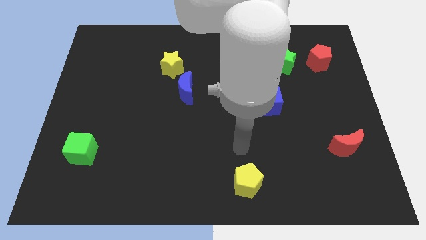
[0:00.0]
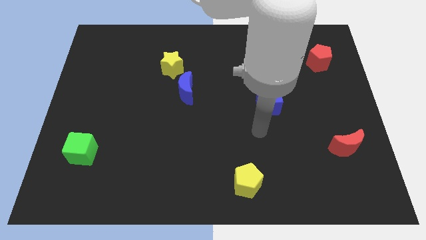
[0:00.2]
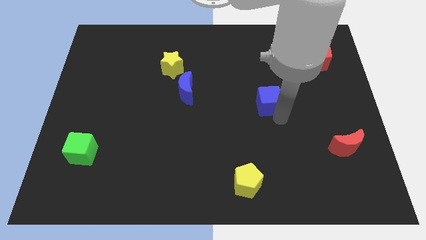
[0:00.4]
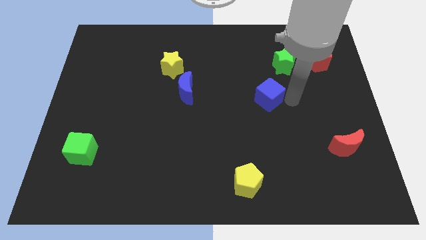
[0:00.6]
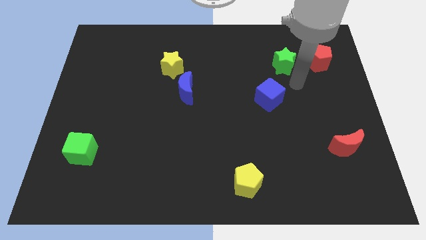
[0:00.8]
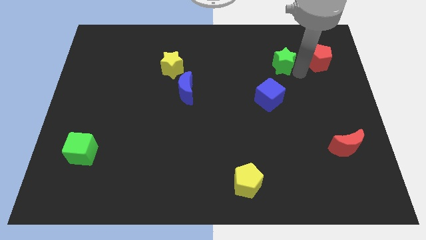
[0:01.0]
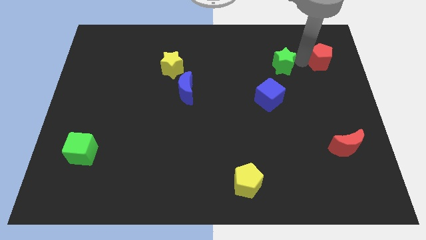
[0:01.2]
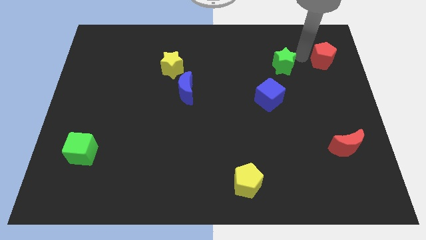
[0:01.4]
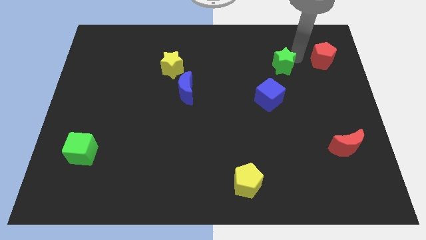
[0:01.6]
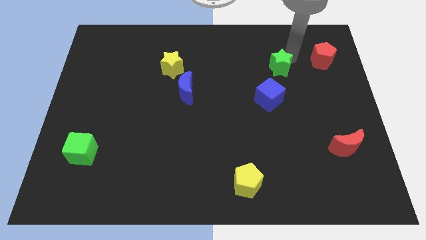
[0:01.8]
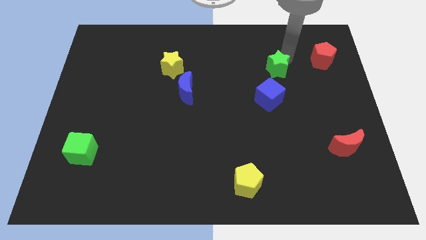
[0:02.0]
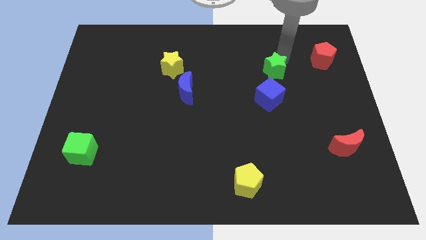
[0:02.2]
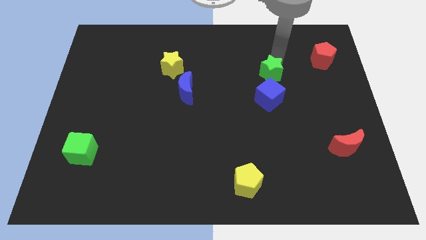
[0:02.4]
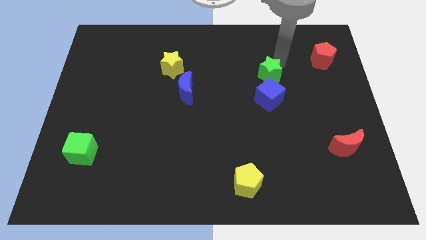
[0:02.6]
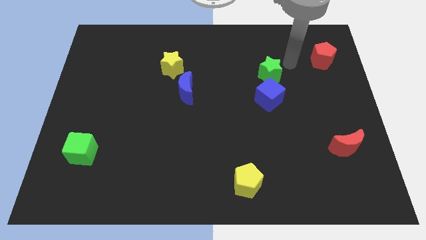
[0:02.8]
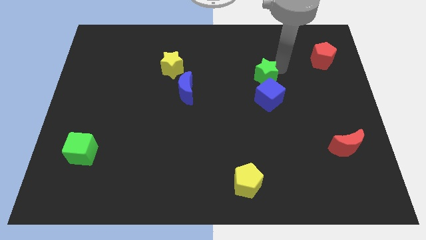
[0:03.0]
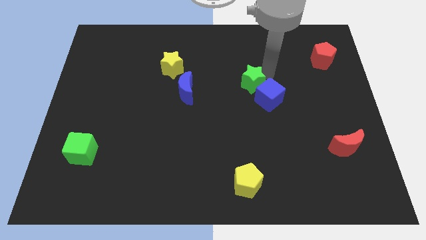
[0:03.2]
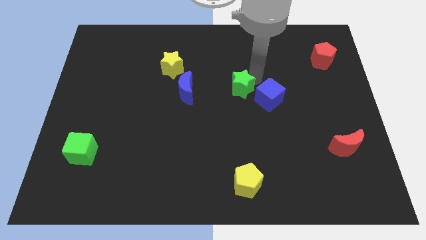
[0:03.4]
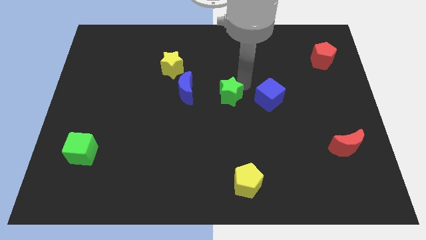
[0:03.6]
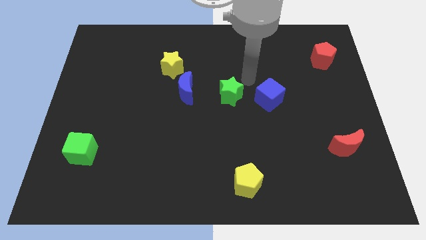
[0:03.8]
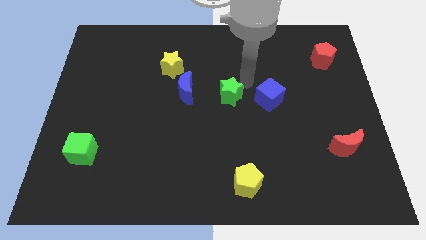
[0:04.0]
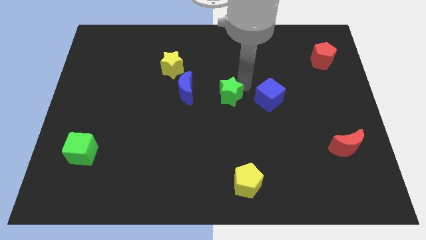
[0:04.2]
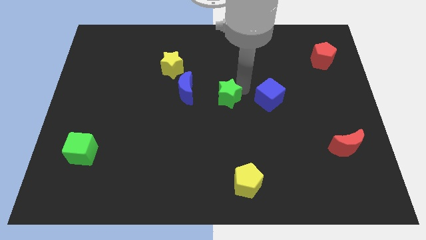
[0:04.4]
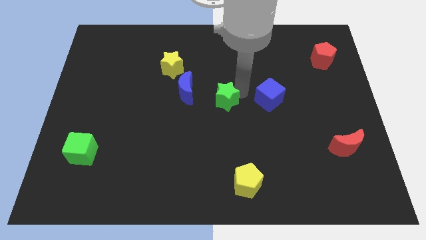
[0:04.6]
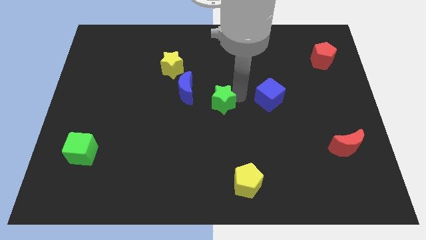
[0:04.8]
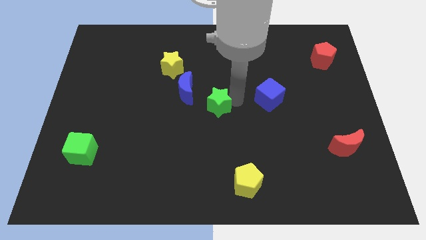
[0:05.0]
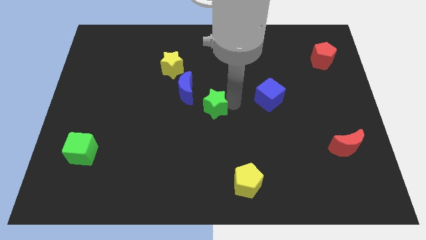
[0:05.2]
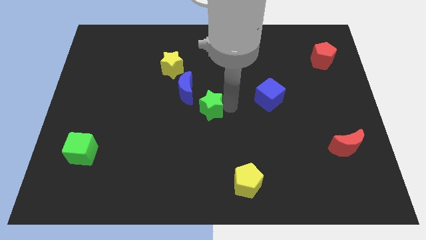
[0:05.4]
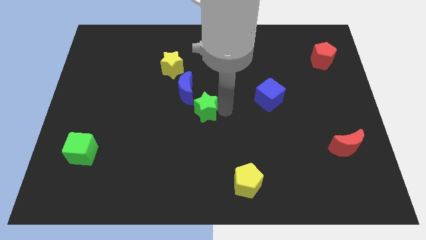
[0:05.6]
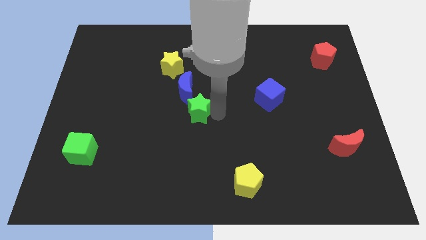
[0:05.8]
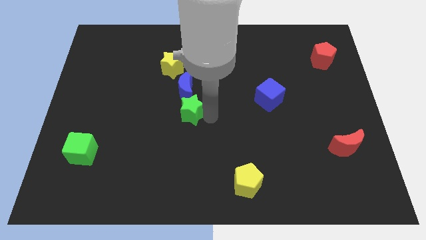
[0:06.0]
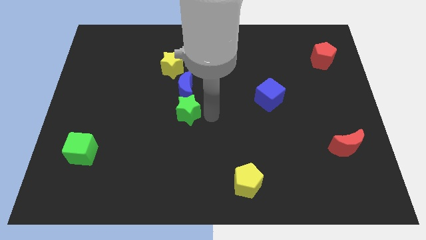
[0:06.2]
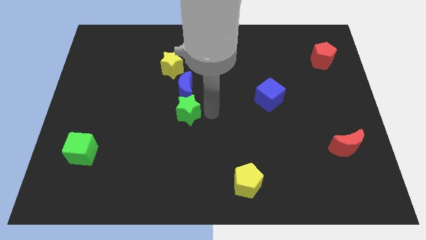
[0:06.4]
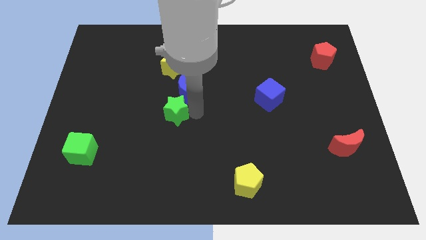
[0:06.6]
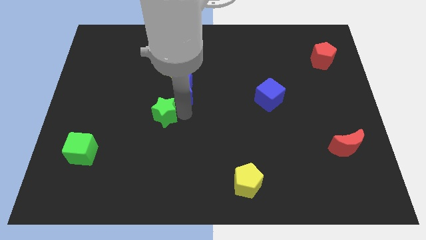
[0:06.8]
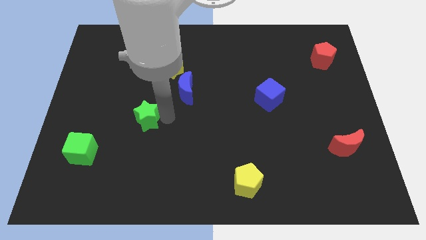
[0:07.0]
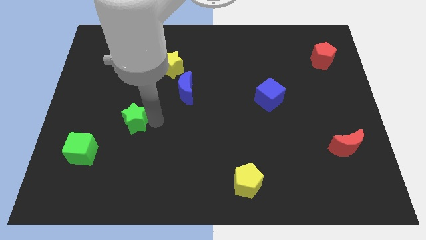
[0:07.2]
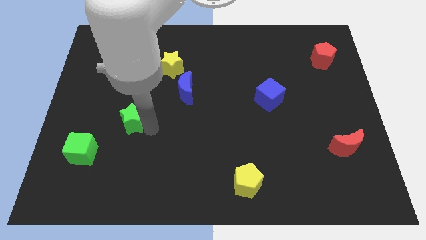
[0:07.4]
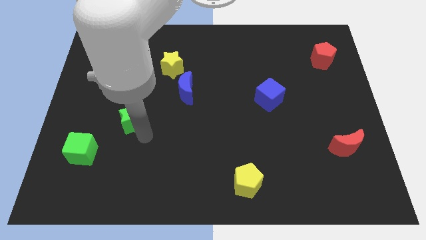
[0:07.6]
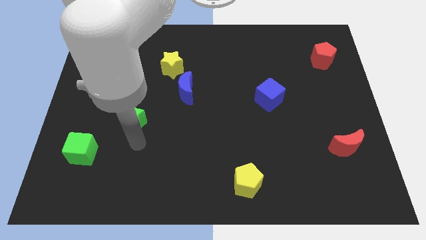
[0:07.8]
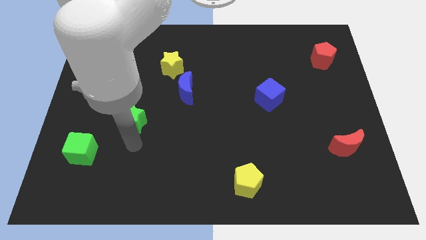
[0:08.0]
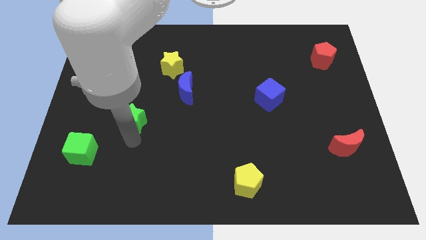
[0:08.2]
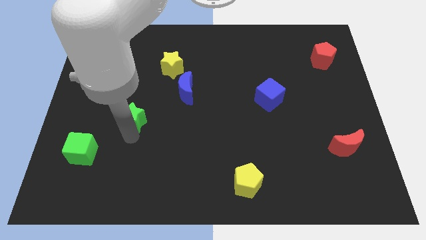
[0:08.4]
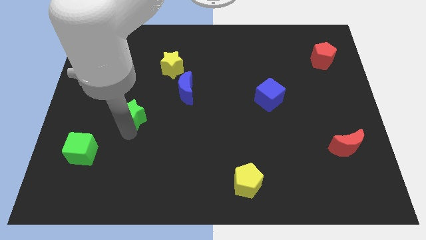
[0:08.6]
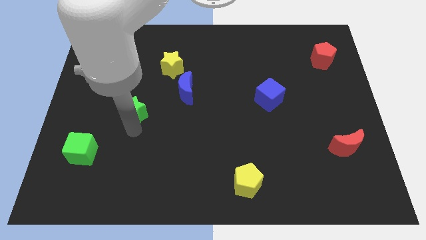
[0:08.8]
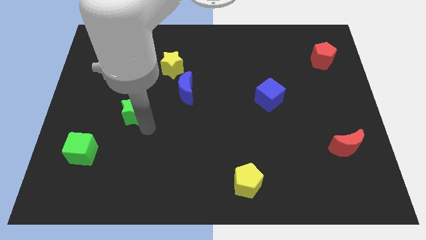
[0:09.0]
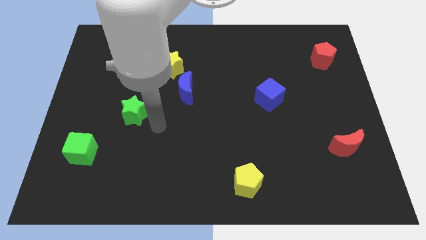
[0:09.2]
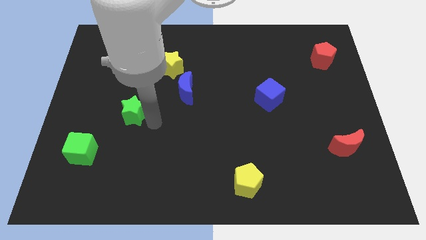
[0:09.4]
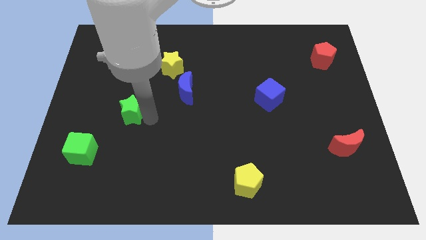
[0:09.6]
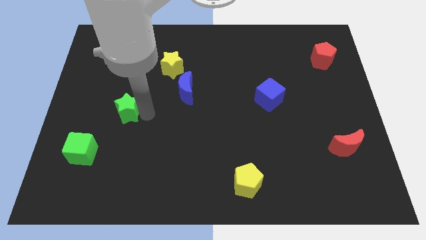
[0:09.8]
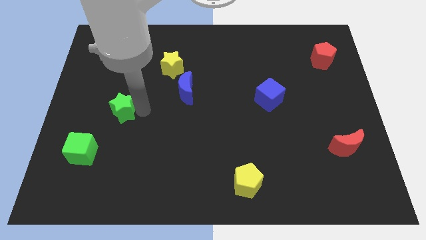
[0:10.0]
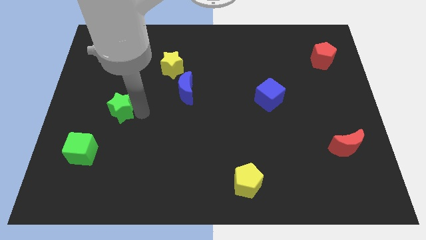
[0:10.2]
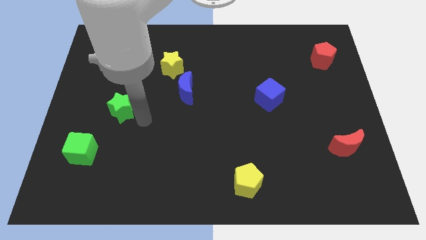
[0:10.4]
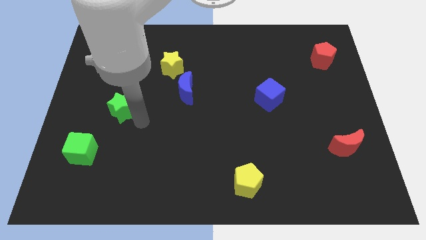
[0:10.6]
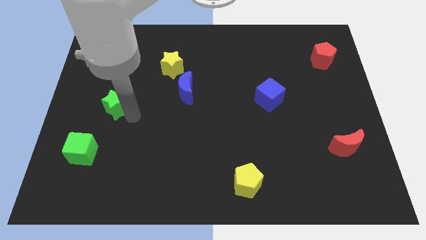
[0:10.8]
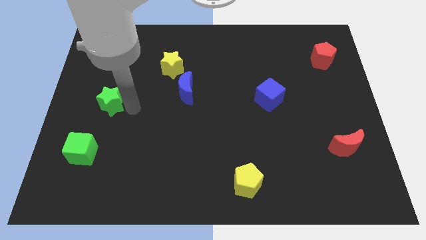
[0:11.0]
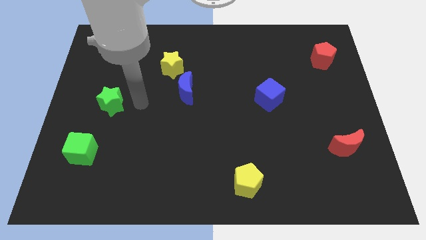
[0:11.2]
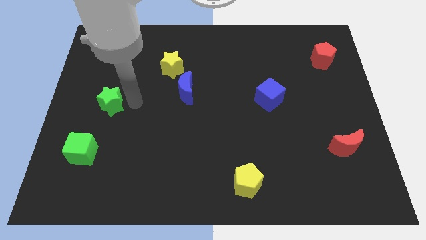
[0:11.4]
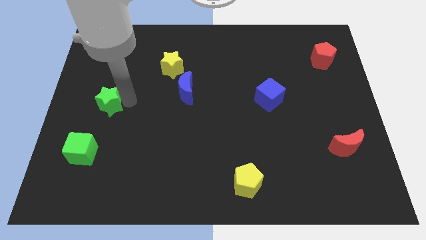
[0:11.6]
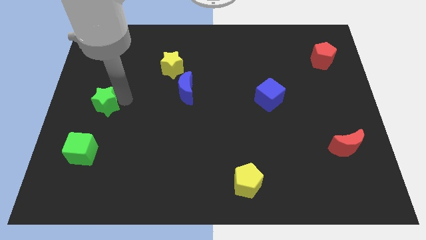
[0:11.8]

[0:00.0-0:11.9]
push the green star to the center left

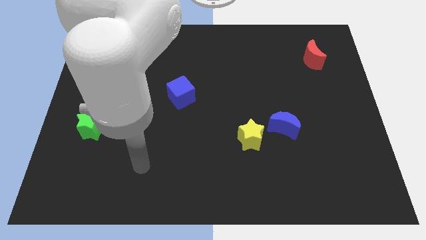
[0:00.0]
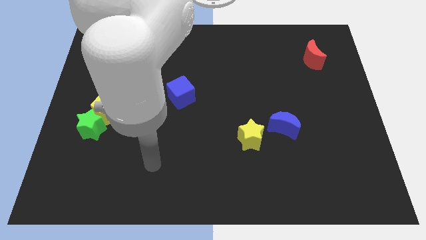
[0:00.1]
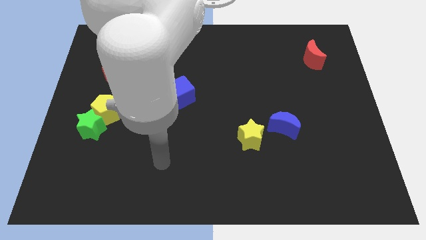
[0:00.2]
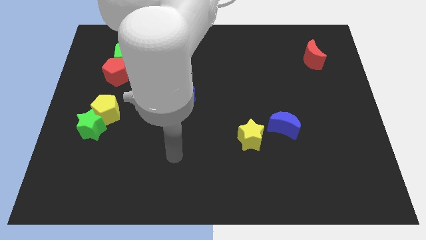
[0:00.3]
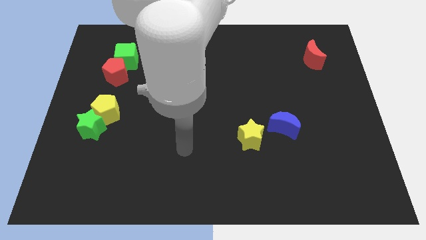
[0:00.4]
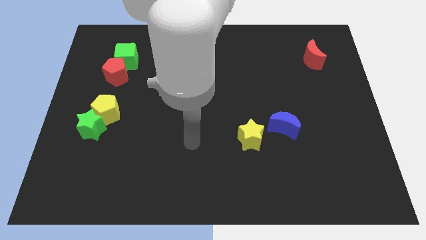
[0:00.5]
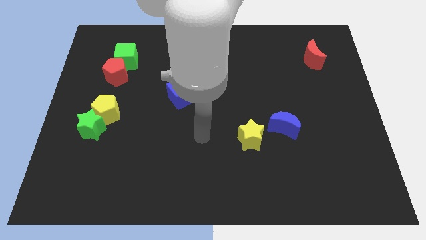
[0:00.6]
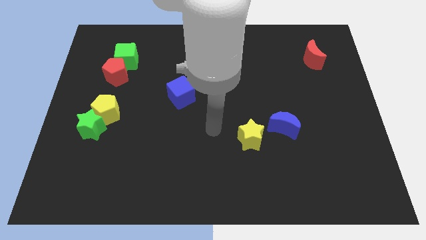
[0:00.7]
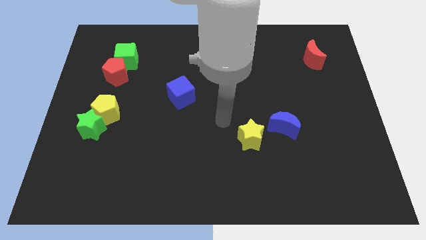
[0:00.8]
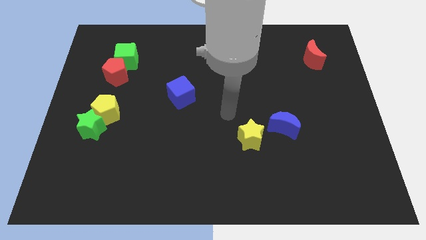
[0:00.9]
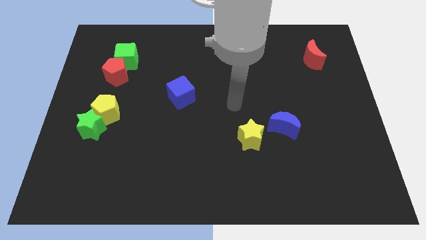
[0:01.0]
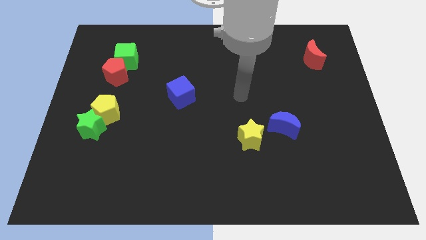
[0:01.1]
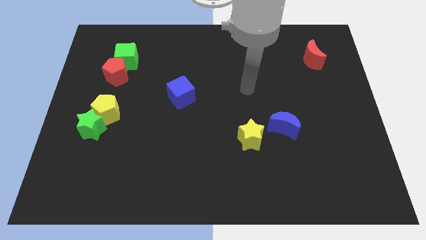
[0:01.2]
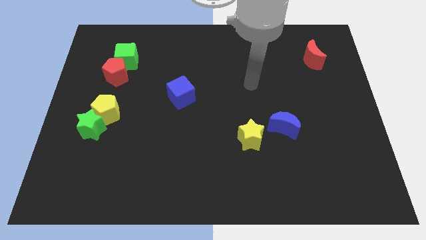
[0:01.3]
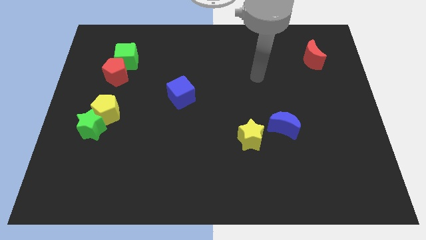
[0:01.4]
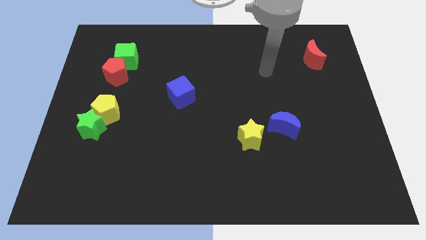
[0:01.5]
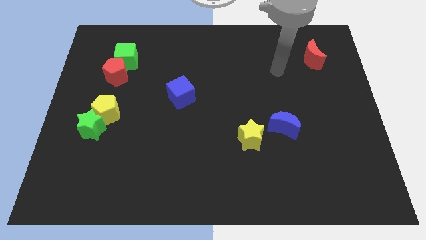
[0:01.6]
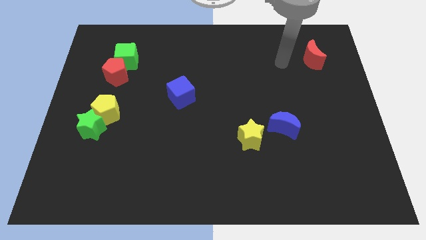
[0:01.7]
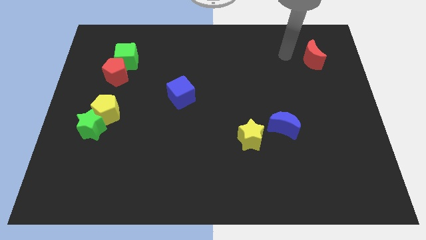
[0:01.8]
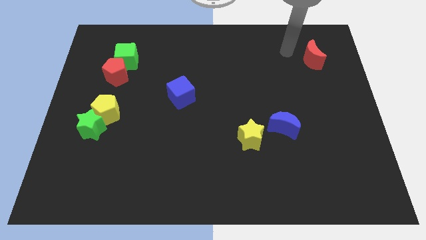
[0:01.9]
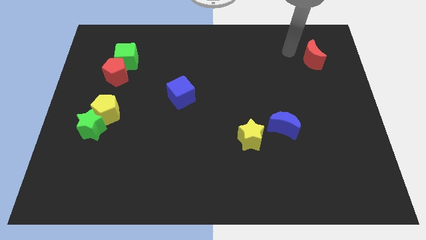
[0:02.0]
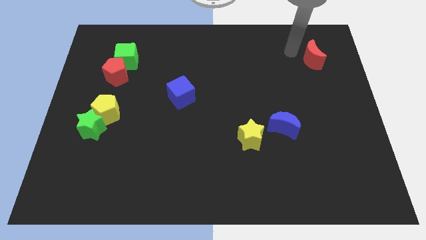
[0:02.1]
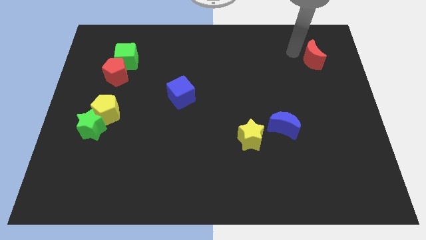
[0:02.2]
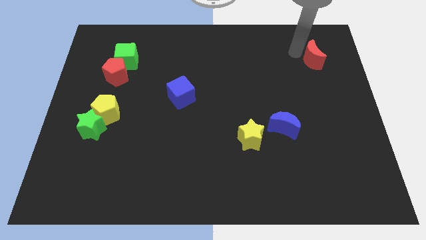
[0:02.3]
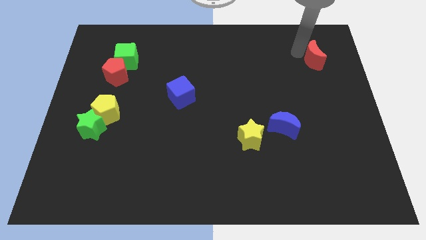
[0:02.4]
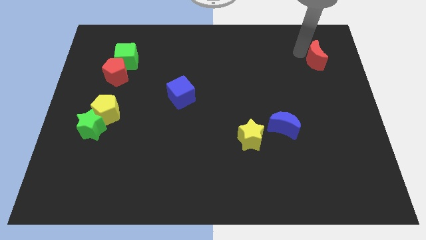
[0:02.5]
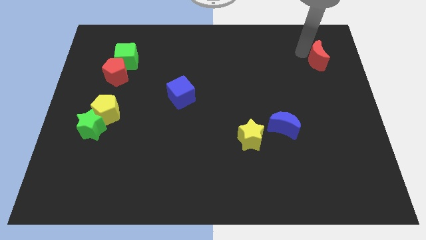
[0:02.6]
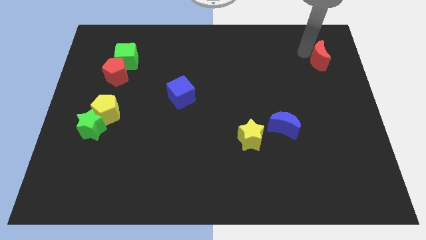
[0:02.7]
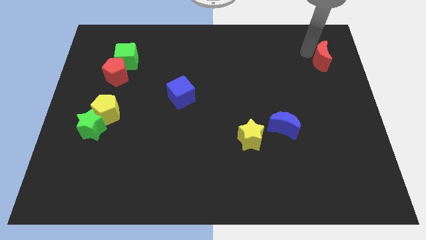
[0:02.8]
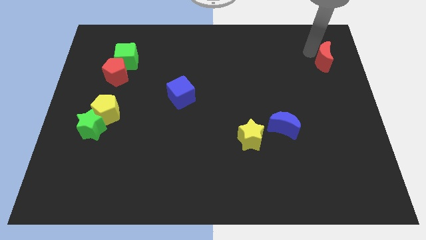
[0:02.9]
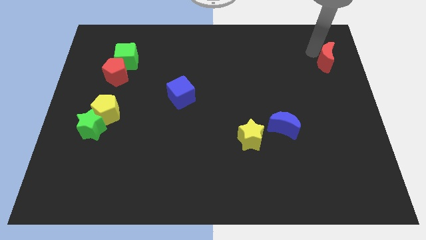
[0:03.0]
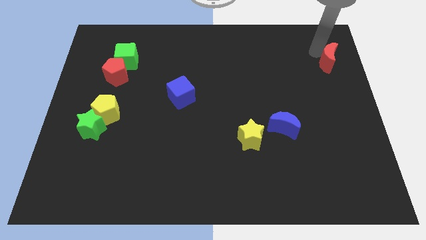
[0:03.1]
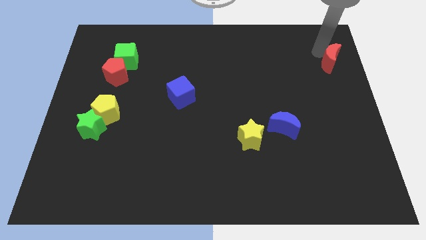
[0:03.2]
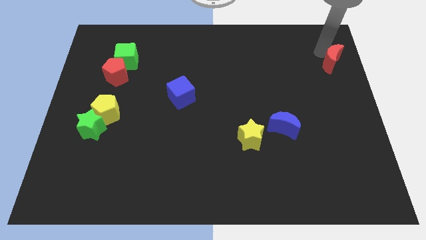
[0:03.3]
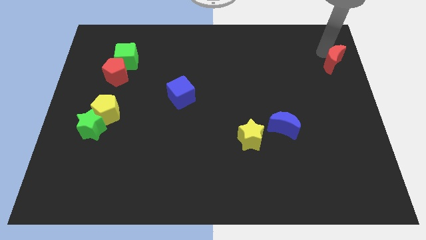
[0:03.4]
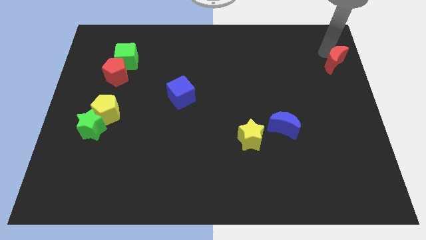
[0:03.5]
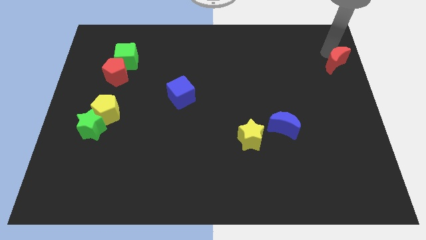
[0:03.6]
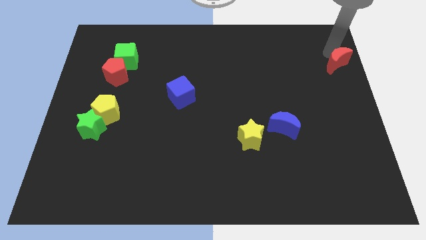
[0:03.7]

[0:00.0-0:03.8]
move the red moon to the center right
